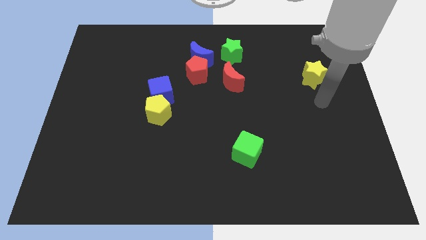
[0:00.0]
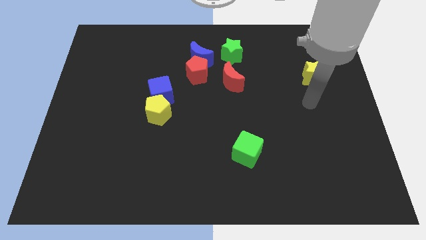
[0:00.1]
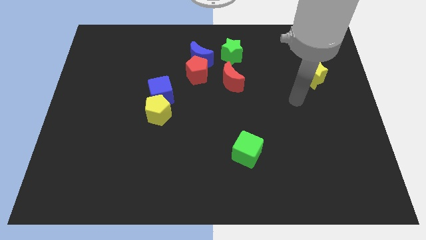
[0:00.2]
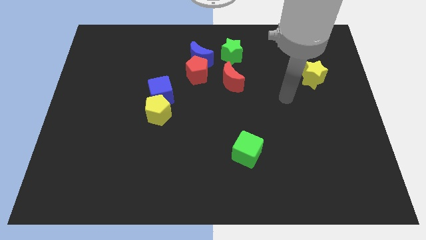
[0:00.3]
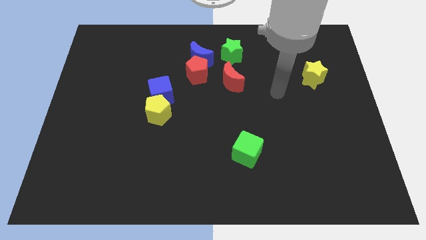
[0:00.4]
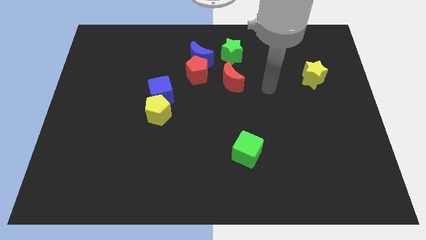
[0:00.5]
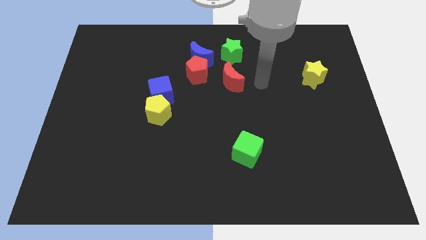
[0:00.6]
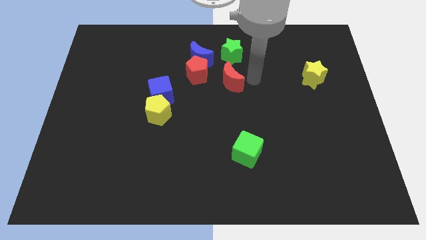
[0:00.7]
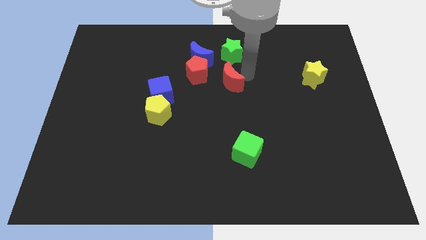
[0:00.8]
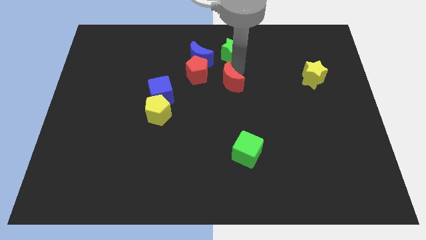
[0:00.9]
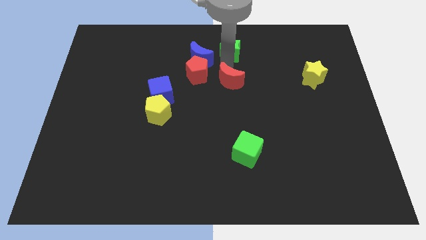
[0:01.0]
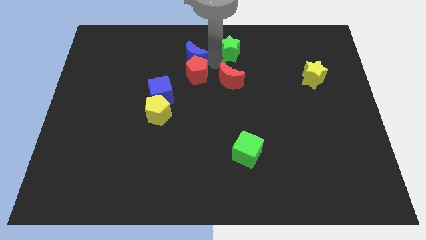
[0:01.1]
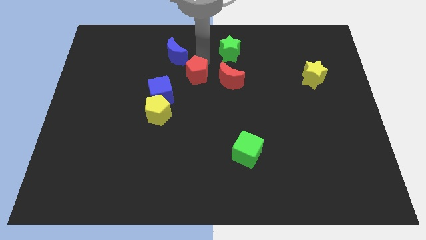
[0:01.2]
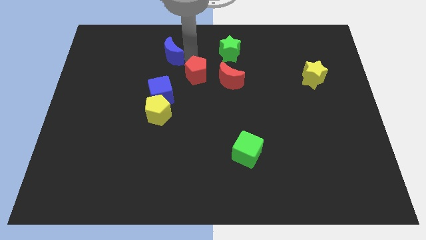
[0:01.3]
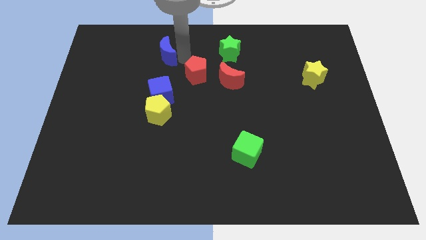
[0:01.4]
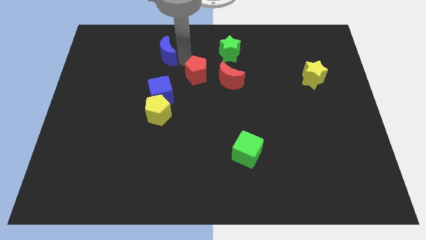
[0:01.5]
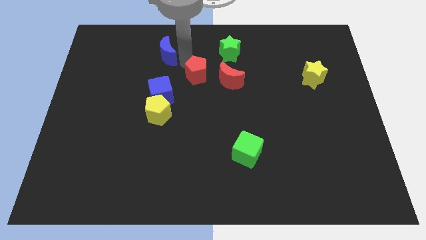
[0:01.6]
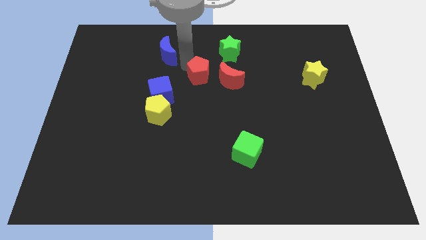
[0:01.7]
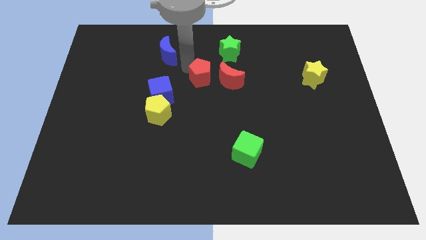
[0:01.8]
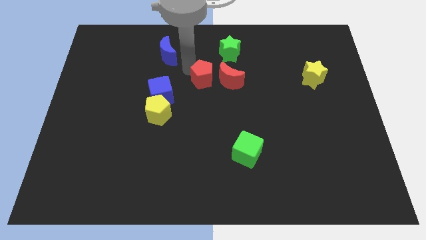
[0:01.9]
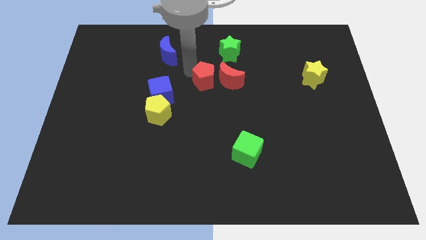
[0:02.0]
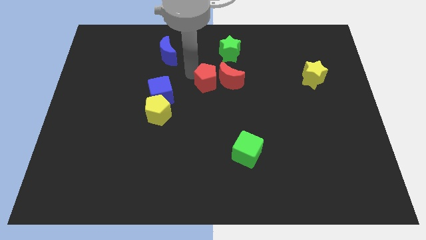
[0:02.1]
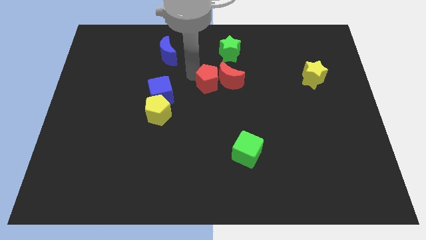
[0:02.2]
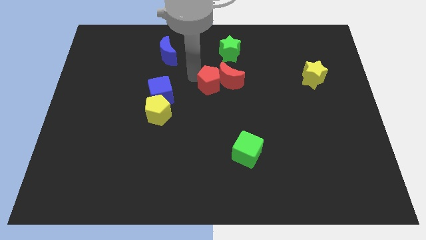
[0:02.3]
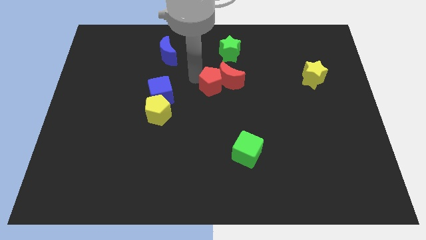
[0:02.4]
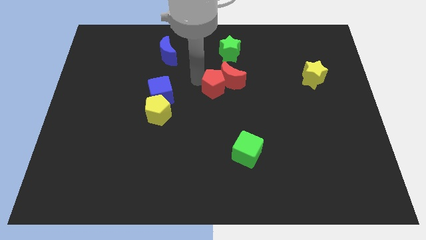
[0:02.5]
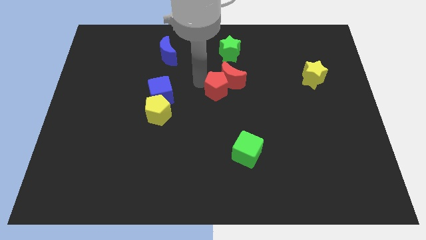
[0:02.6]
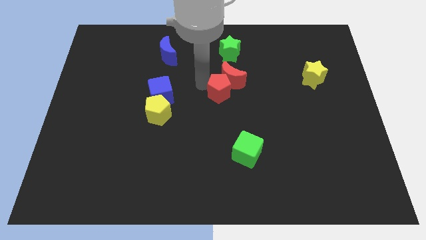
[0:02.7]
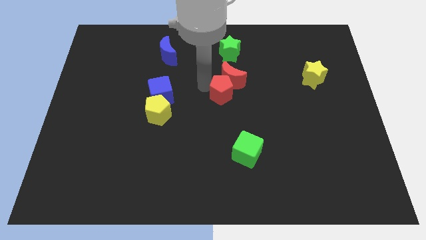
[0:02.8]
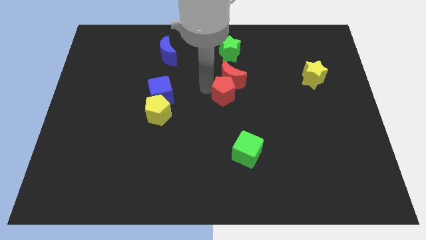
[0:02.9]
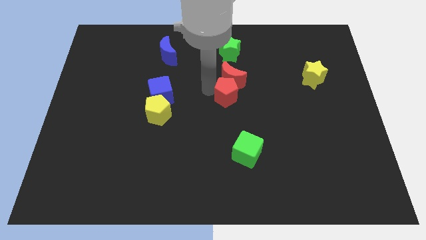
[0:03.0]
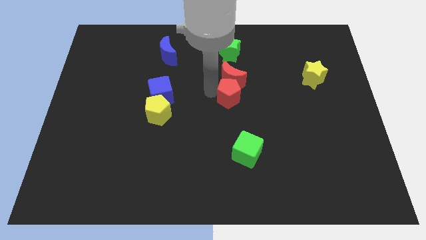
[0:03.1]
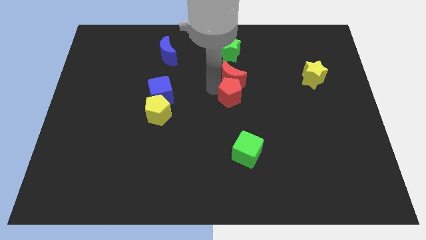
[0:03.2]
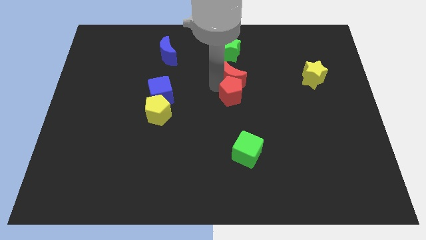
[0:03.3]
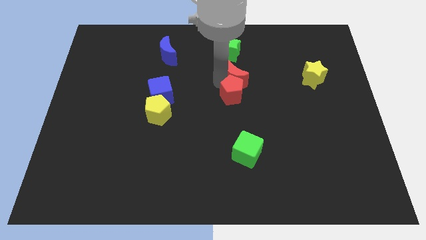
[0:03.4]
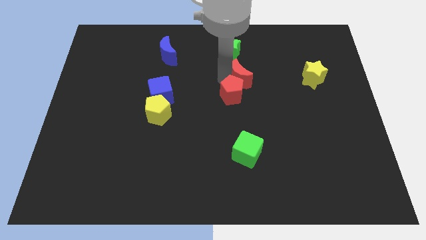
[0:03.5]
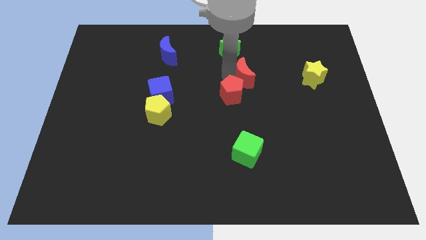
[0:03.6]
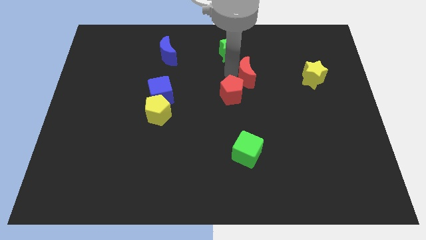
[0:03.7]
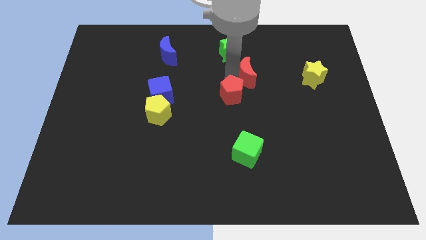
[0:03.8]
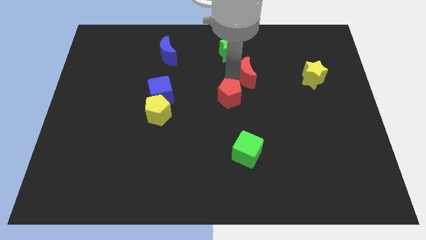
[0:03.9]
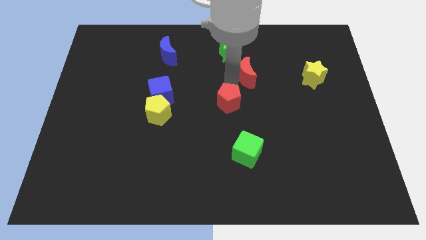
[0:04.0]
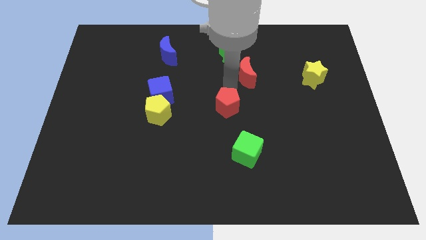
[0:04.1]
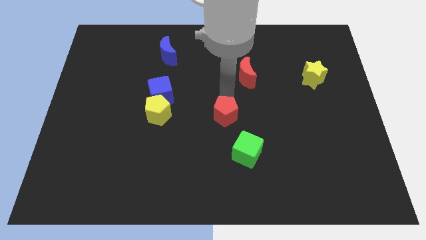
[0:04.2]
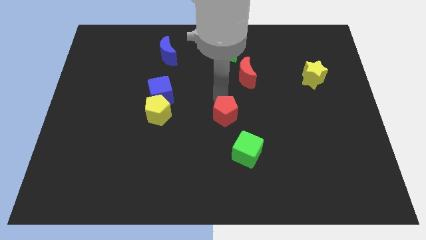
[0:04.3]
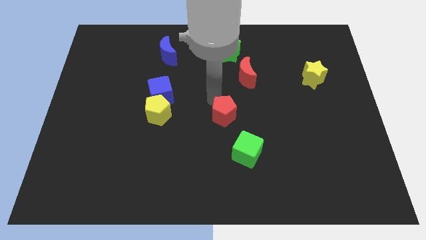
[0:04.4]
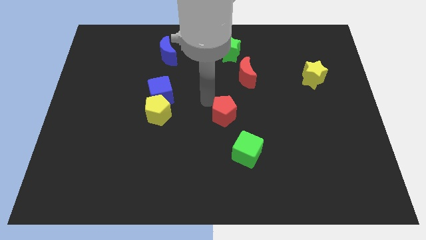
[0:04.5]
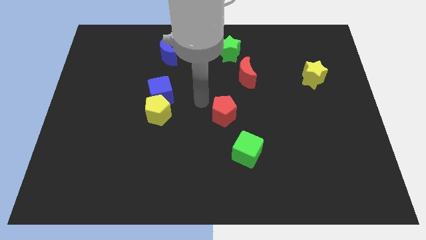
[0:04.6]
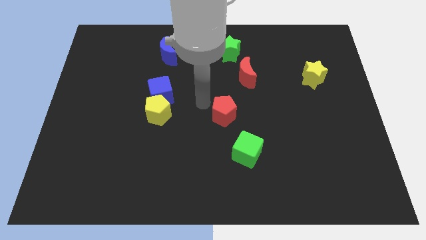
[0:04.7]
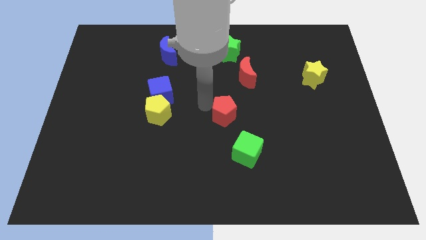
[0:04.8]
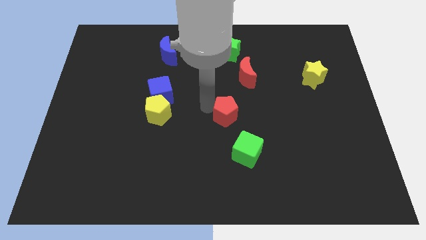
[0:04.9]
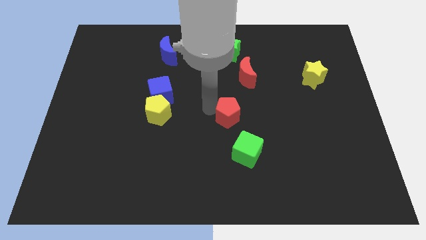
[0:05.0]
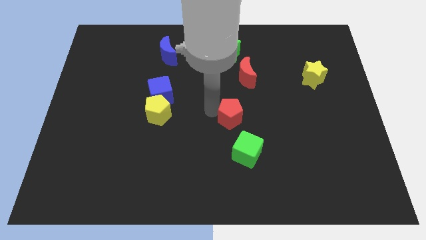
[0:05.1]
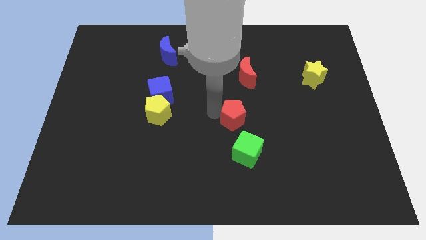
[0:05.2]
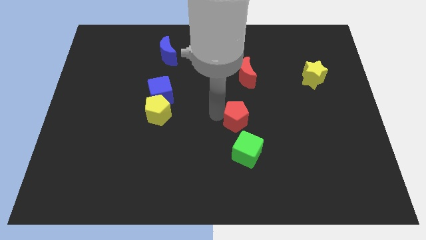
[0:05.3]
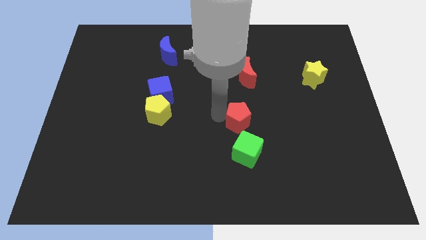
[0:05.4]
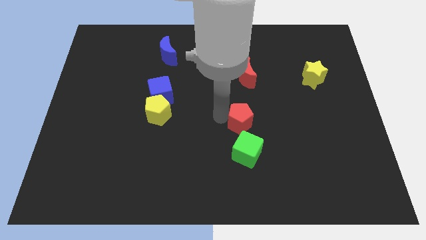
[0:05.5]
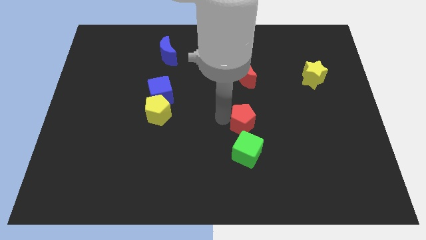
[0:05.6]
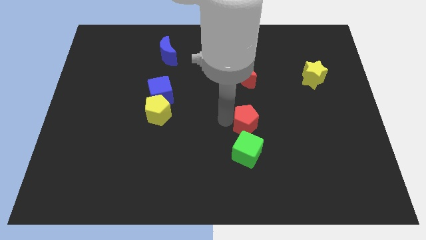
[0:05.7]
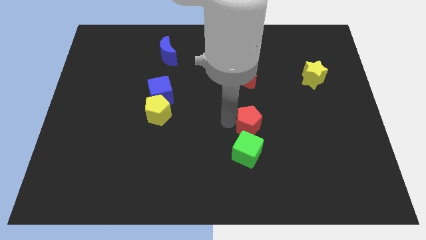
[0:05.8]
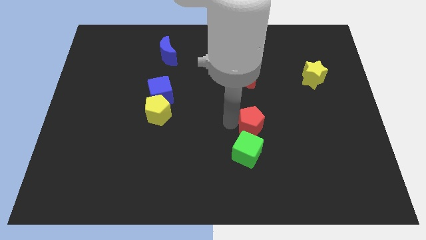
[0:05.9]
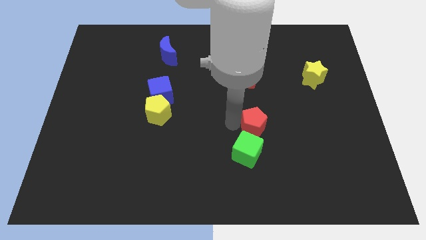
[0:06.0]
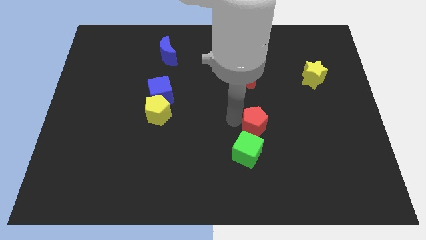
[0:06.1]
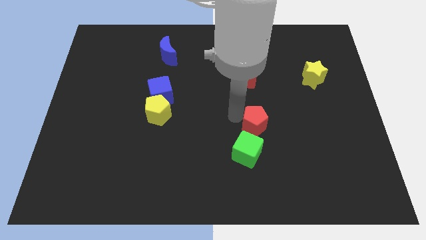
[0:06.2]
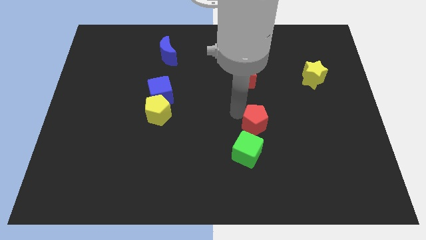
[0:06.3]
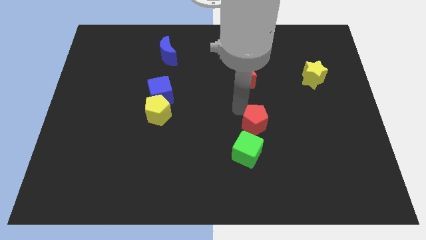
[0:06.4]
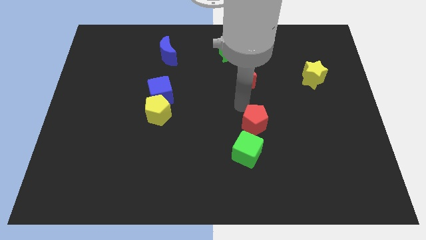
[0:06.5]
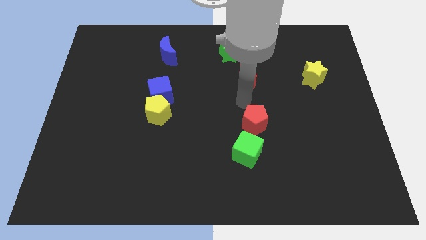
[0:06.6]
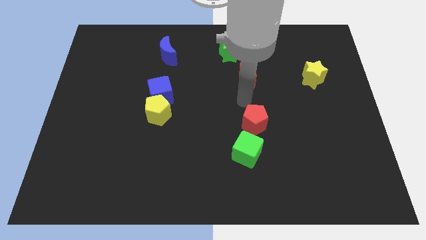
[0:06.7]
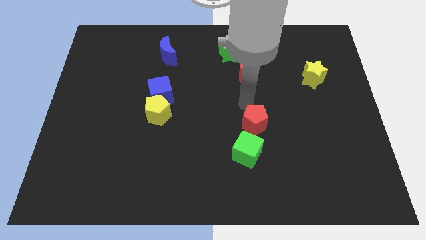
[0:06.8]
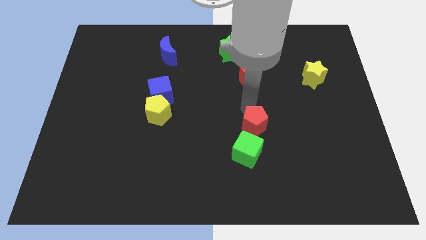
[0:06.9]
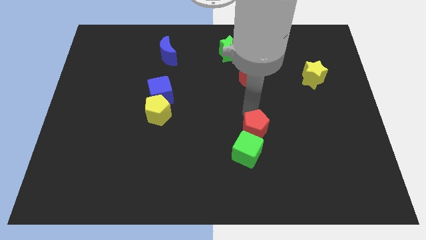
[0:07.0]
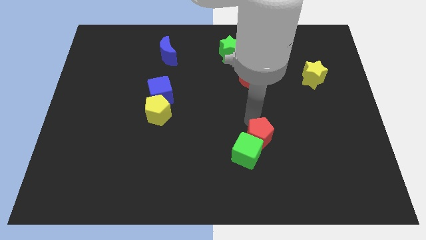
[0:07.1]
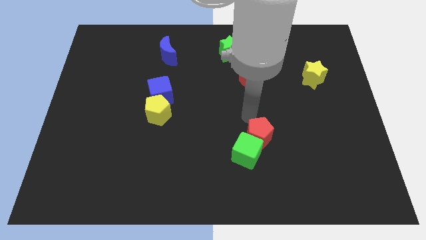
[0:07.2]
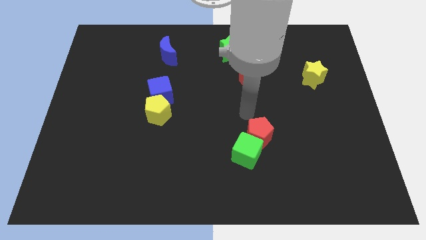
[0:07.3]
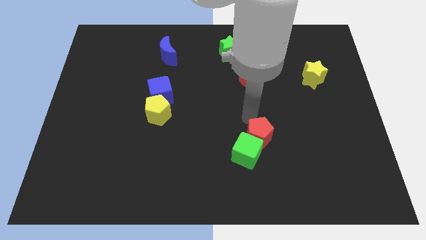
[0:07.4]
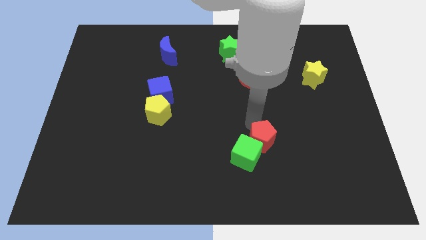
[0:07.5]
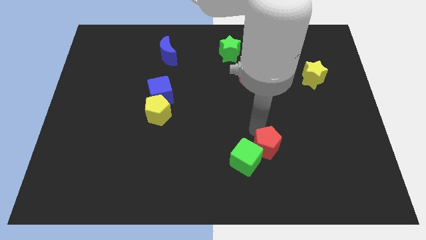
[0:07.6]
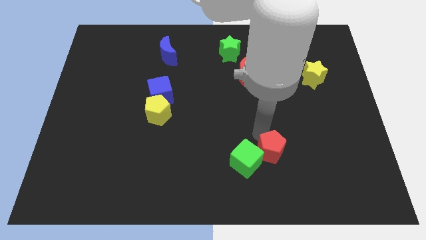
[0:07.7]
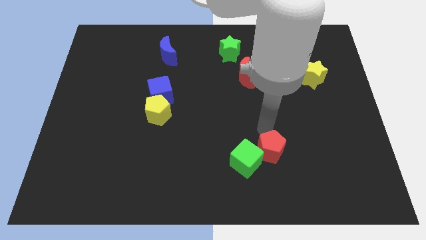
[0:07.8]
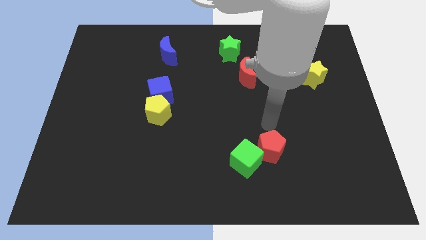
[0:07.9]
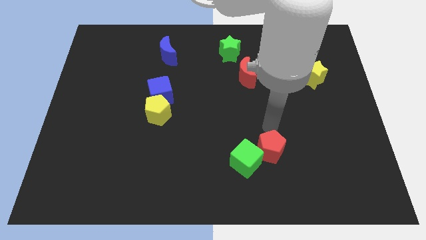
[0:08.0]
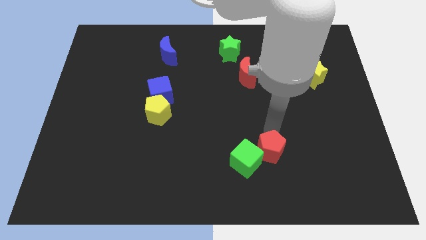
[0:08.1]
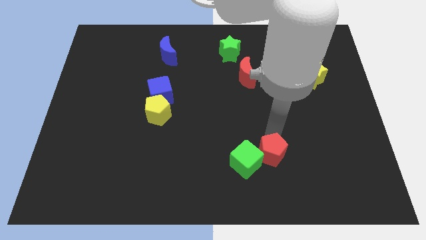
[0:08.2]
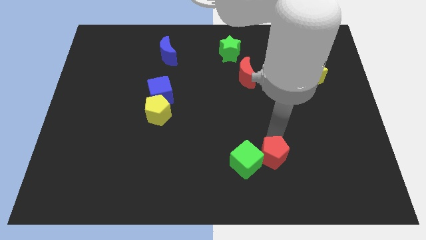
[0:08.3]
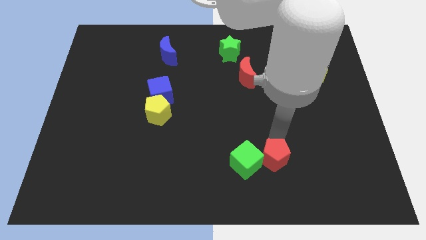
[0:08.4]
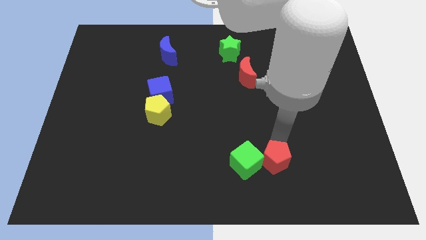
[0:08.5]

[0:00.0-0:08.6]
push the red pentagon to the bottom right side of the green cube
